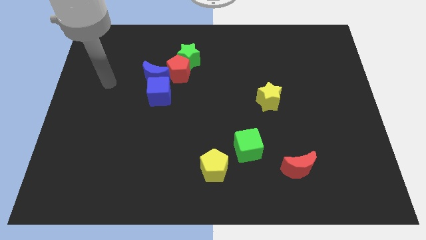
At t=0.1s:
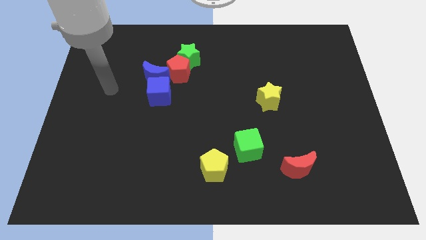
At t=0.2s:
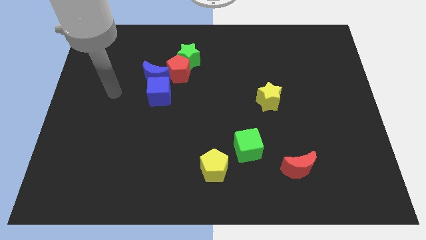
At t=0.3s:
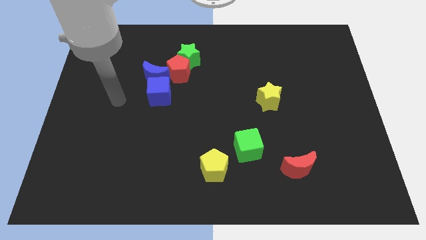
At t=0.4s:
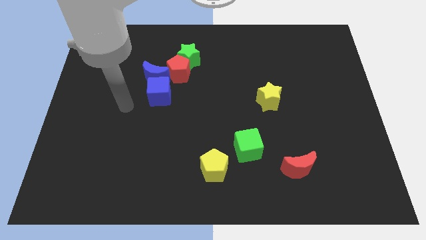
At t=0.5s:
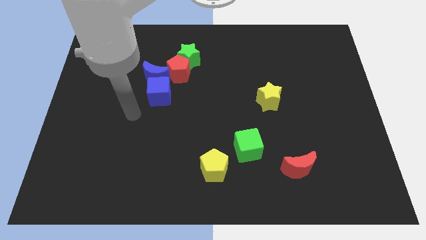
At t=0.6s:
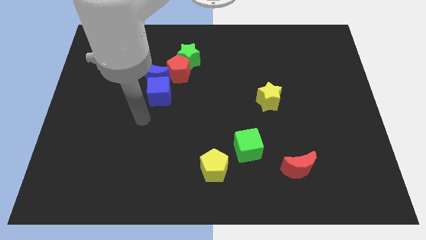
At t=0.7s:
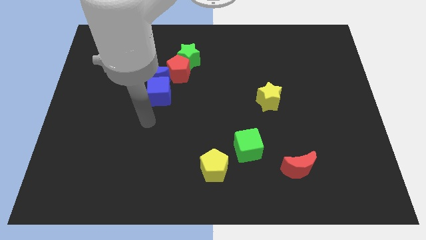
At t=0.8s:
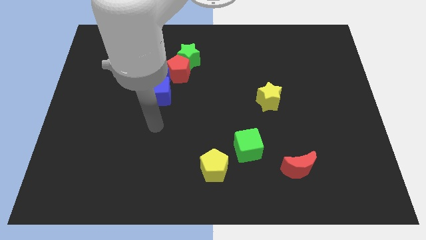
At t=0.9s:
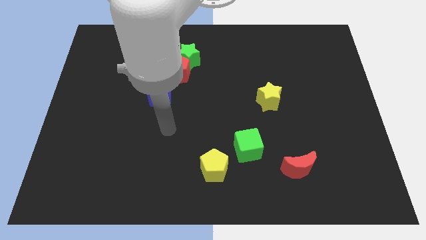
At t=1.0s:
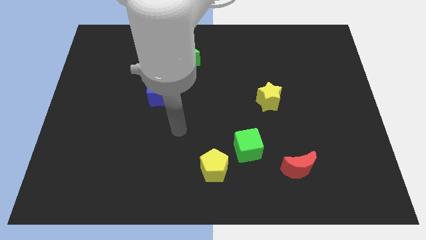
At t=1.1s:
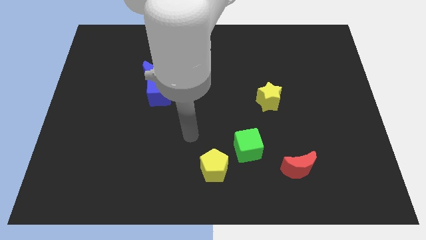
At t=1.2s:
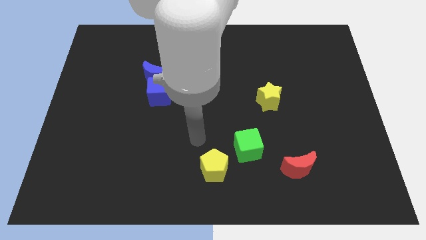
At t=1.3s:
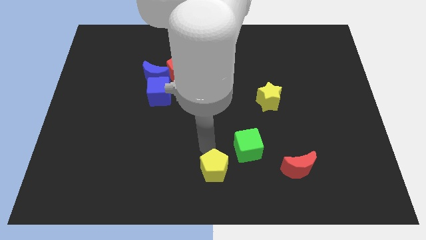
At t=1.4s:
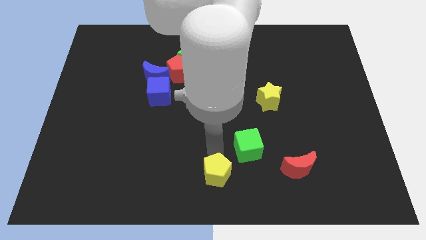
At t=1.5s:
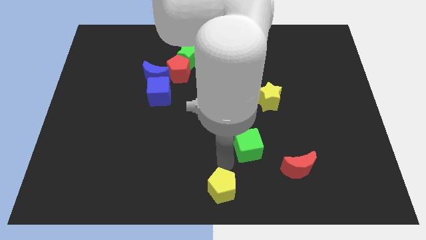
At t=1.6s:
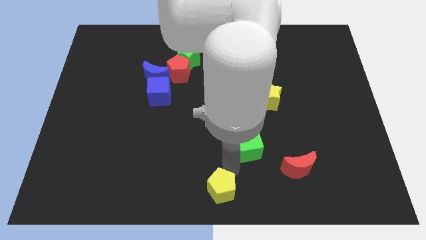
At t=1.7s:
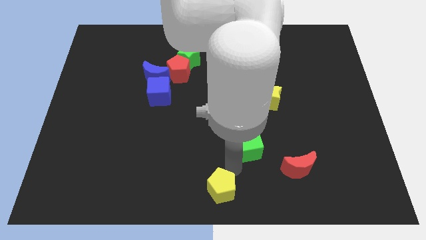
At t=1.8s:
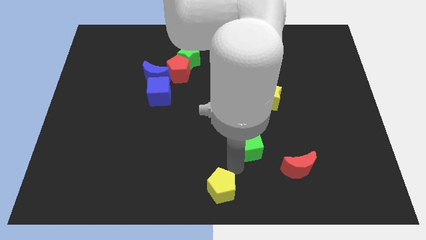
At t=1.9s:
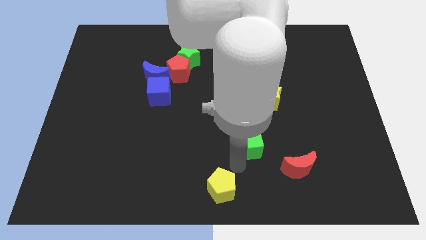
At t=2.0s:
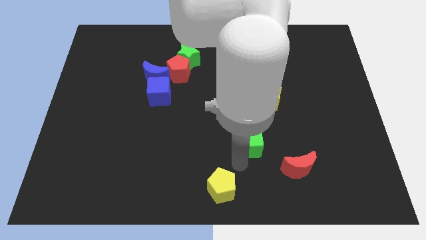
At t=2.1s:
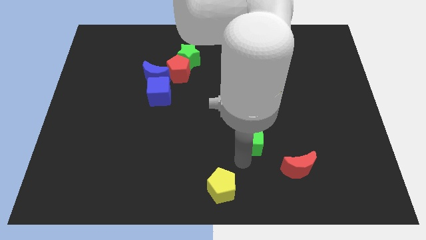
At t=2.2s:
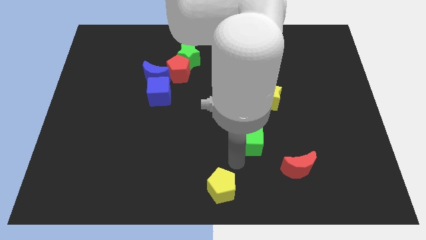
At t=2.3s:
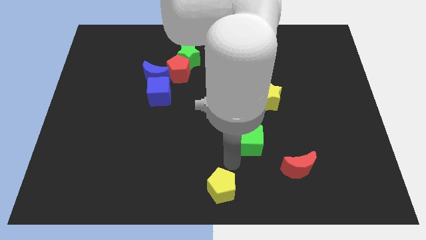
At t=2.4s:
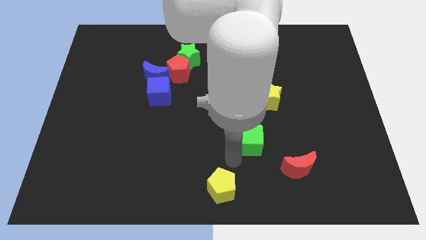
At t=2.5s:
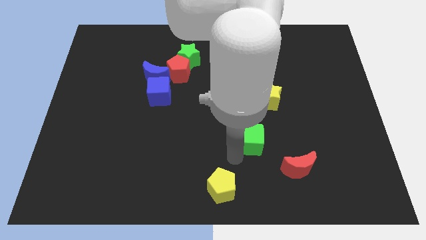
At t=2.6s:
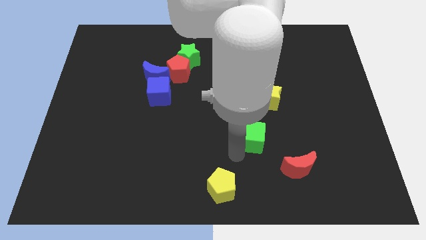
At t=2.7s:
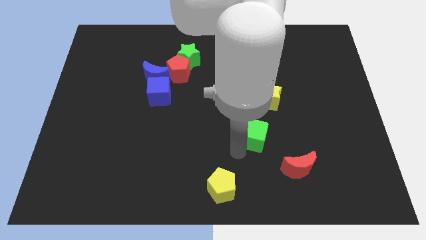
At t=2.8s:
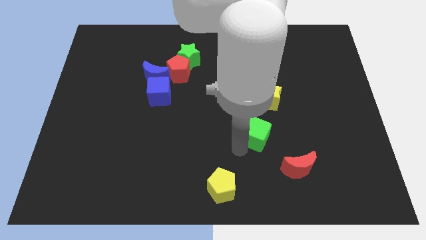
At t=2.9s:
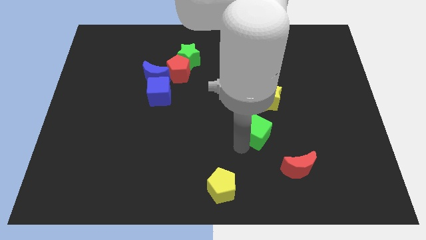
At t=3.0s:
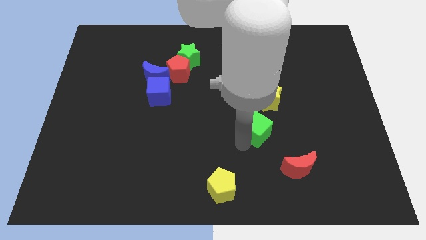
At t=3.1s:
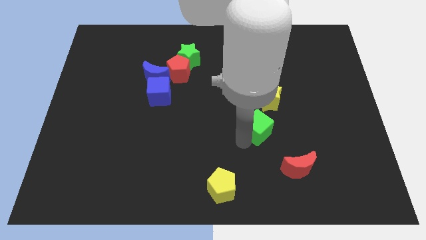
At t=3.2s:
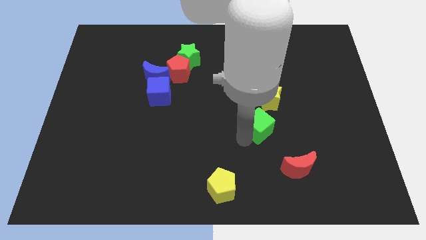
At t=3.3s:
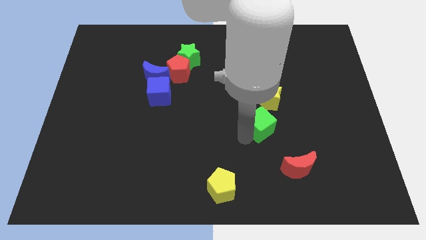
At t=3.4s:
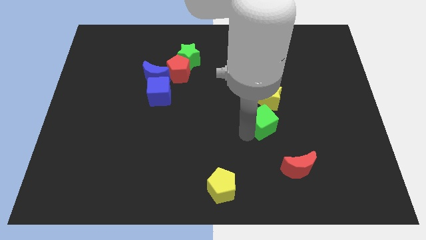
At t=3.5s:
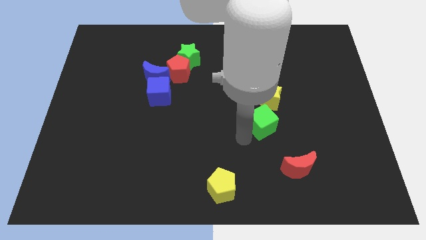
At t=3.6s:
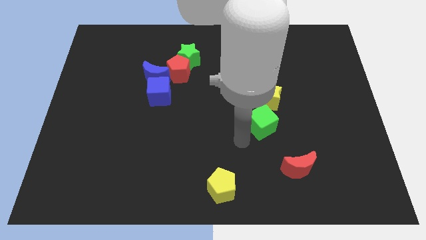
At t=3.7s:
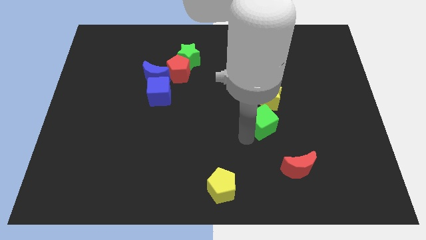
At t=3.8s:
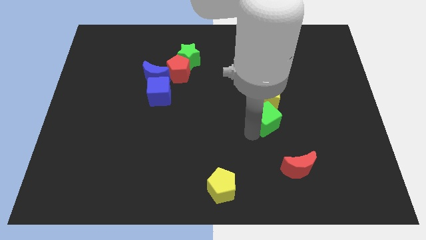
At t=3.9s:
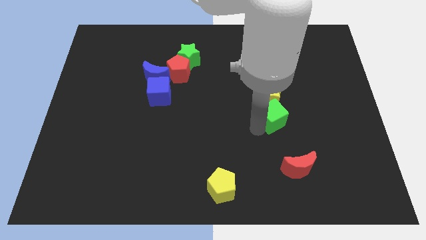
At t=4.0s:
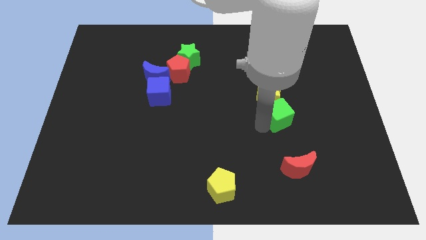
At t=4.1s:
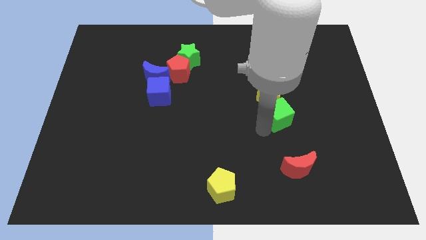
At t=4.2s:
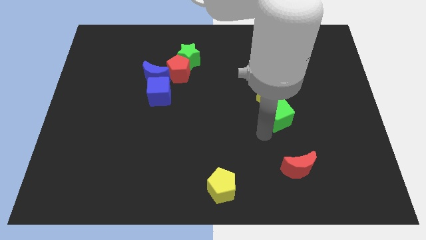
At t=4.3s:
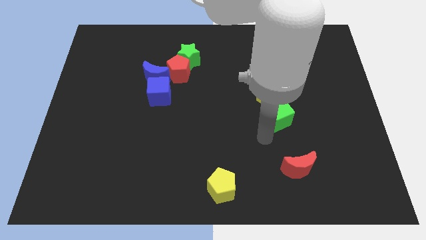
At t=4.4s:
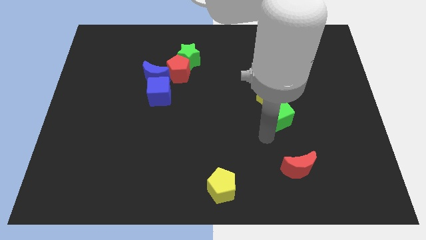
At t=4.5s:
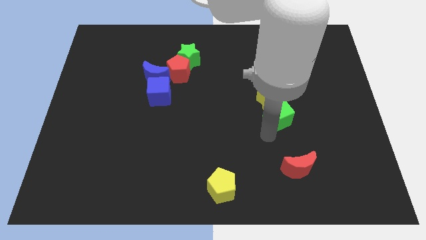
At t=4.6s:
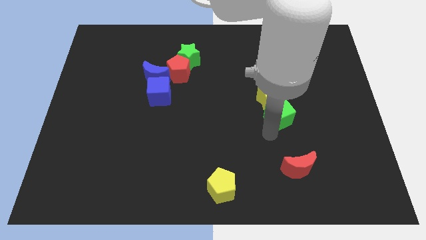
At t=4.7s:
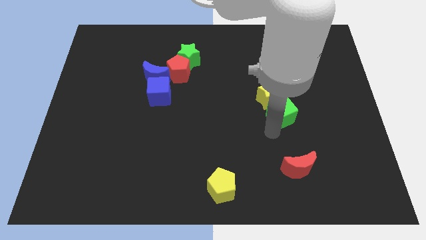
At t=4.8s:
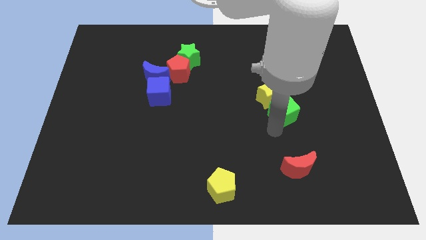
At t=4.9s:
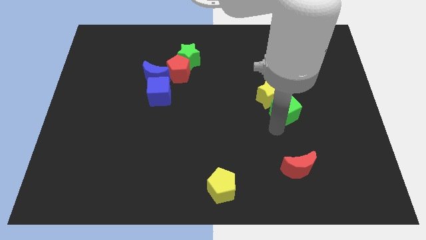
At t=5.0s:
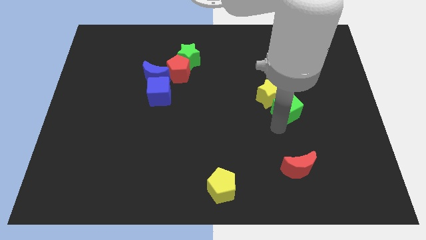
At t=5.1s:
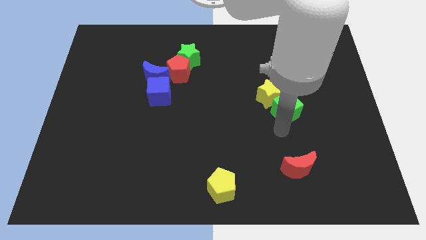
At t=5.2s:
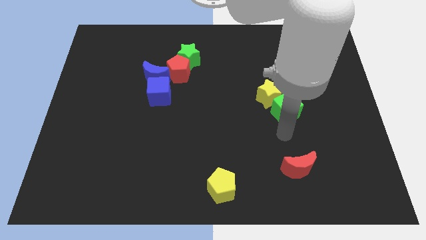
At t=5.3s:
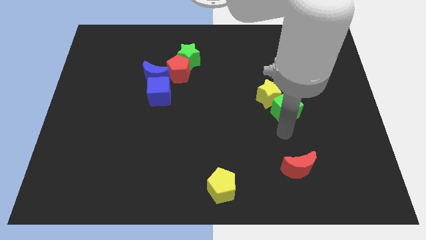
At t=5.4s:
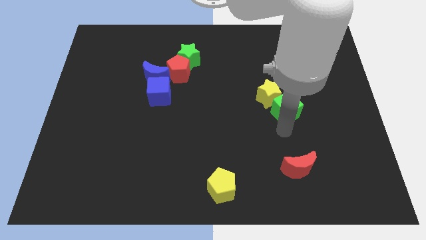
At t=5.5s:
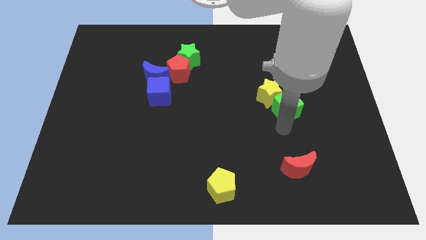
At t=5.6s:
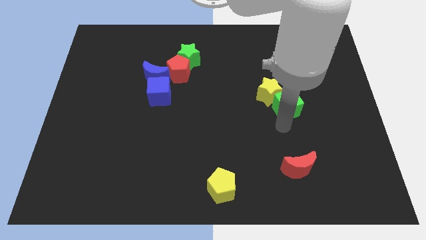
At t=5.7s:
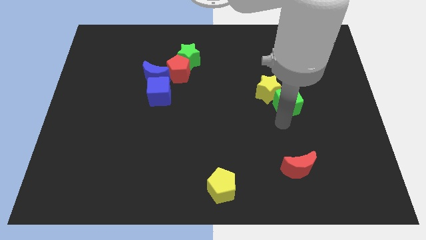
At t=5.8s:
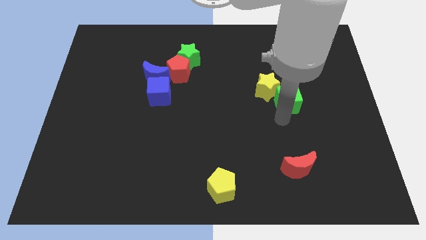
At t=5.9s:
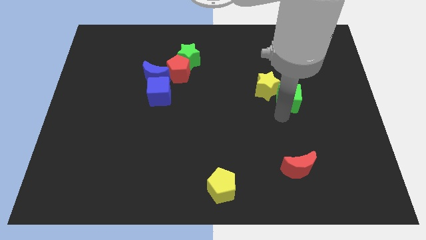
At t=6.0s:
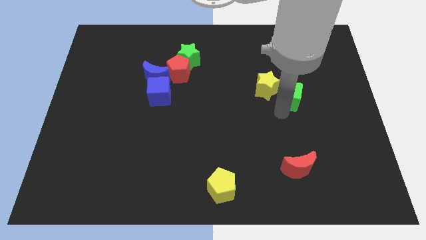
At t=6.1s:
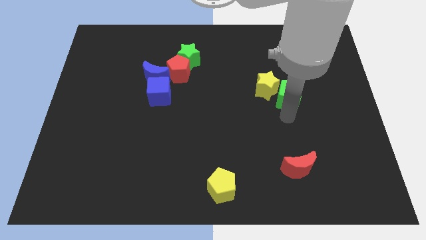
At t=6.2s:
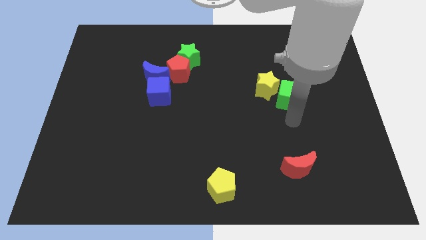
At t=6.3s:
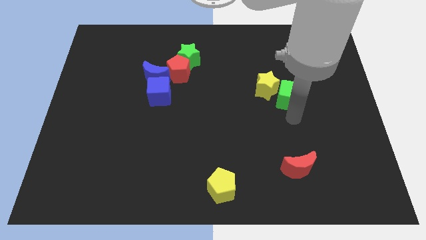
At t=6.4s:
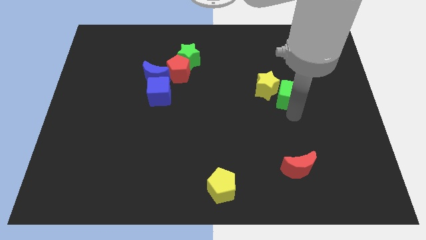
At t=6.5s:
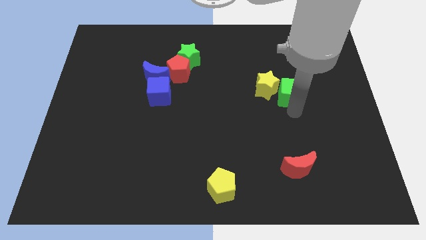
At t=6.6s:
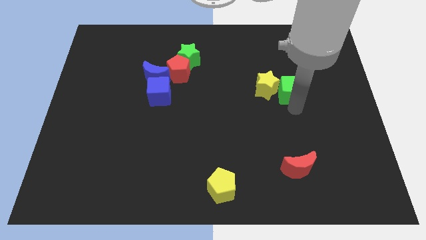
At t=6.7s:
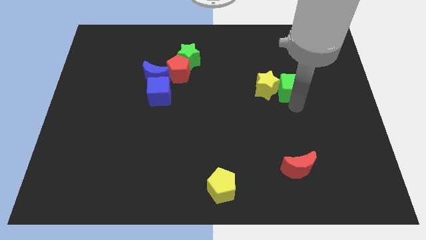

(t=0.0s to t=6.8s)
move the green cube to the top right of the yellow star
